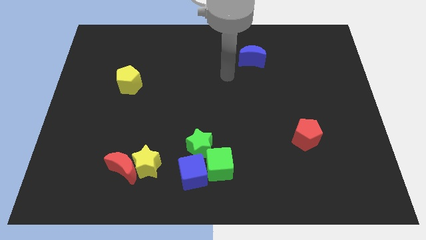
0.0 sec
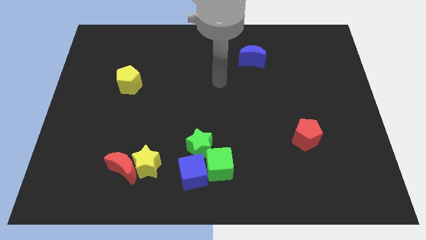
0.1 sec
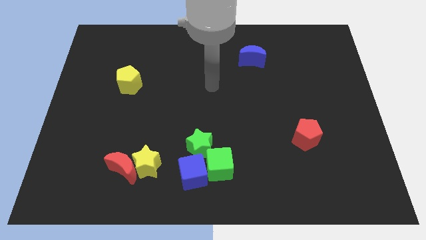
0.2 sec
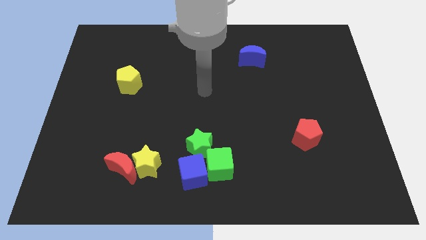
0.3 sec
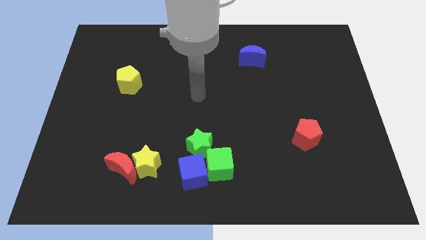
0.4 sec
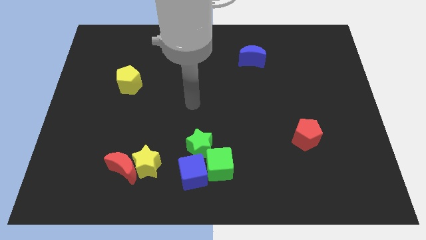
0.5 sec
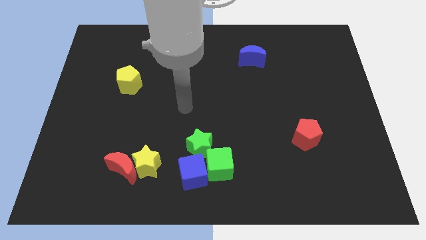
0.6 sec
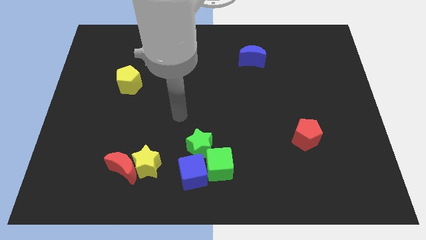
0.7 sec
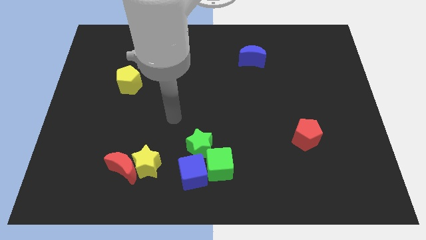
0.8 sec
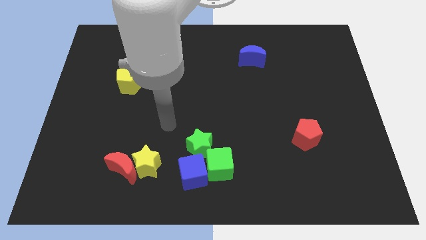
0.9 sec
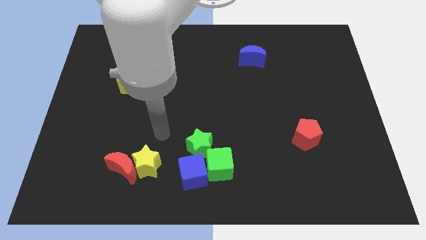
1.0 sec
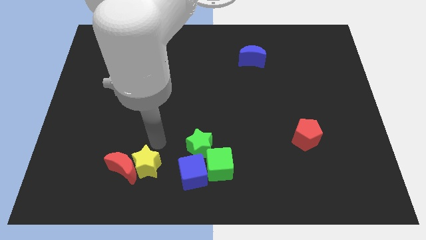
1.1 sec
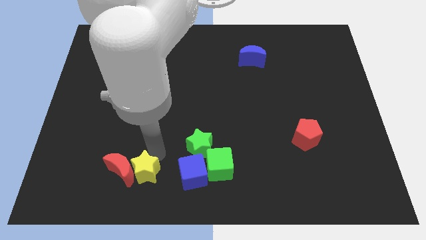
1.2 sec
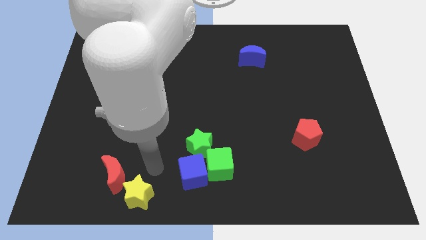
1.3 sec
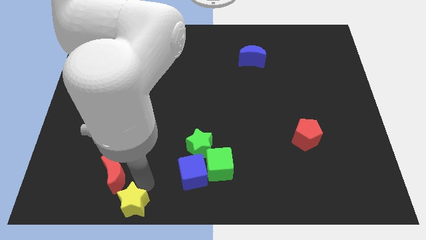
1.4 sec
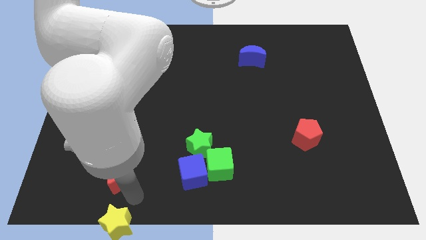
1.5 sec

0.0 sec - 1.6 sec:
separate the red moon from the yellow star

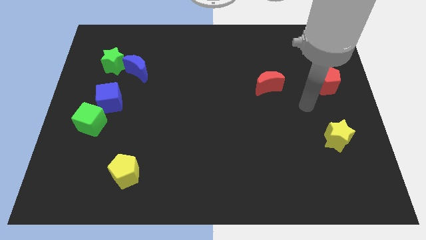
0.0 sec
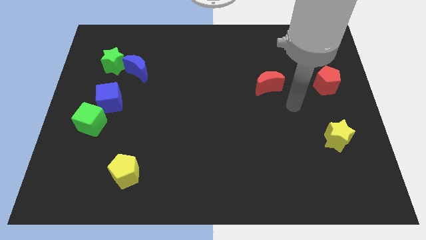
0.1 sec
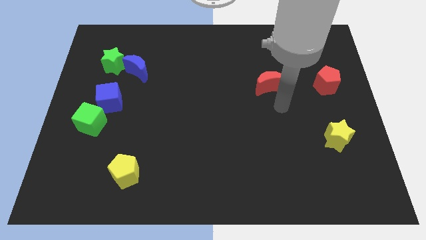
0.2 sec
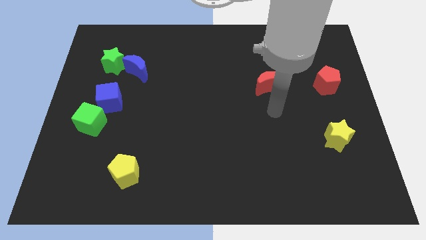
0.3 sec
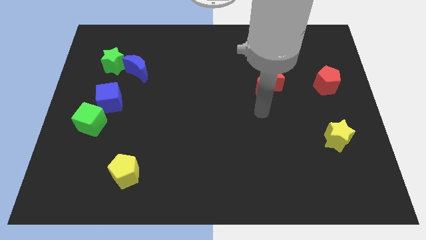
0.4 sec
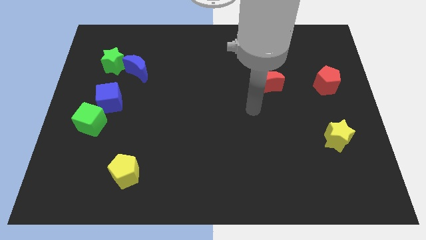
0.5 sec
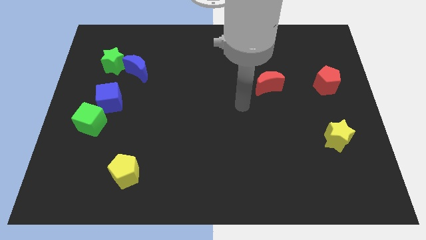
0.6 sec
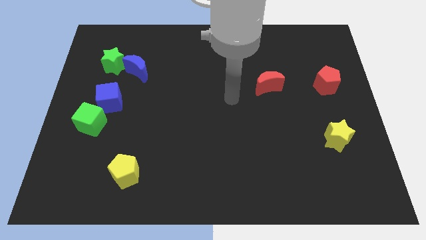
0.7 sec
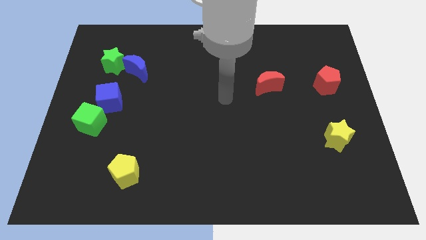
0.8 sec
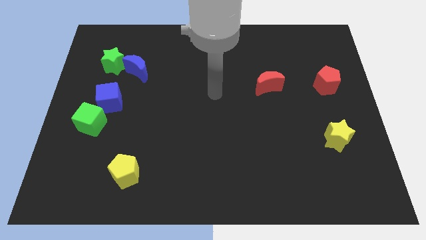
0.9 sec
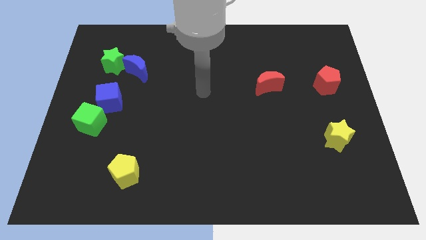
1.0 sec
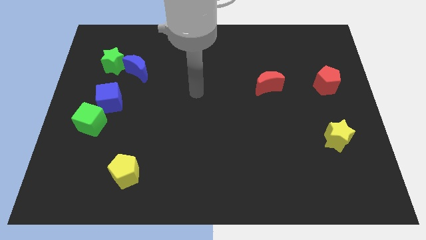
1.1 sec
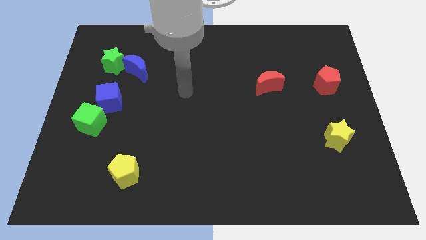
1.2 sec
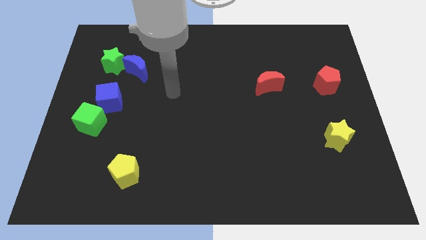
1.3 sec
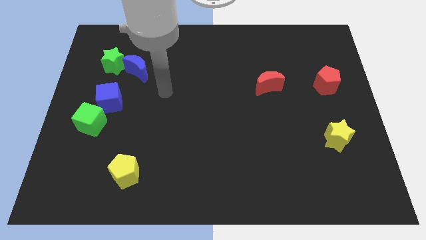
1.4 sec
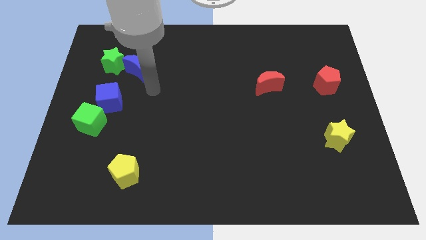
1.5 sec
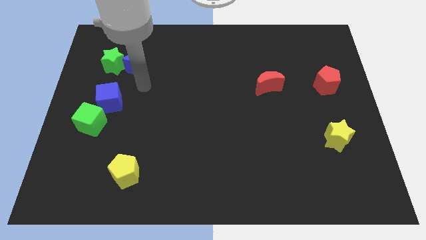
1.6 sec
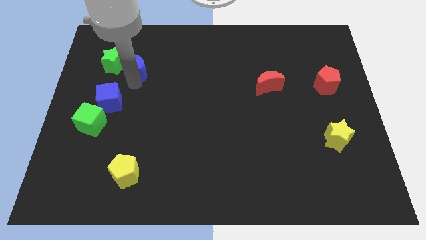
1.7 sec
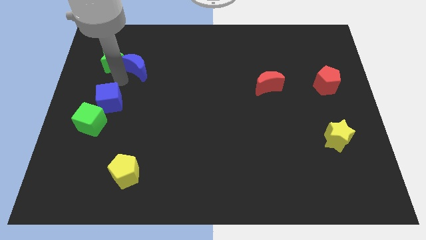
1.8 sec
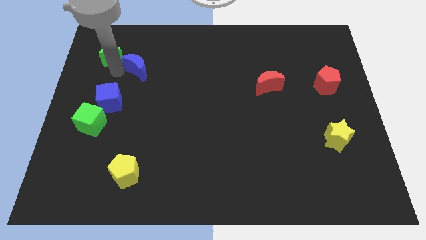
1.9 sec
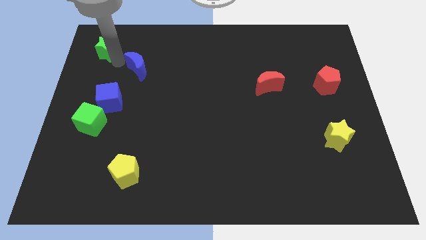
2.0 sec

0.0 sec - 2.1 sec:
pull the blue moon apart from the green star

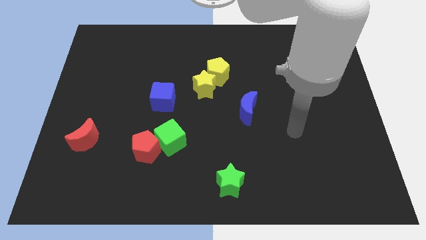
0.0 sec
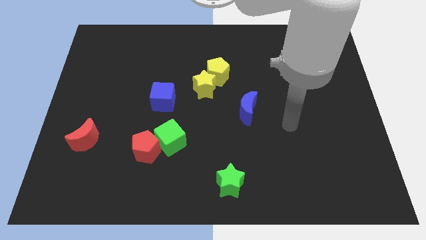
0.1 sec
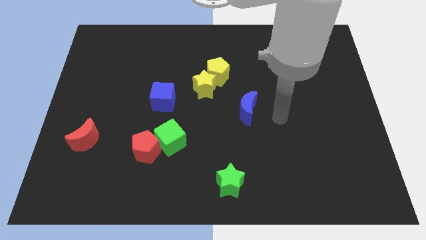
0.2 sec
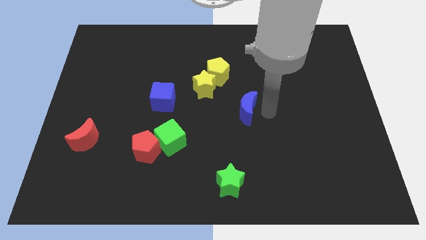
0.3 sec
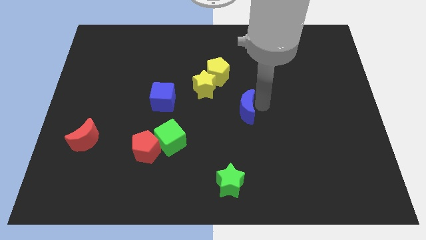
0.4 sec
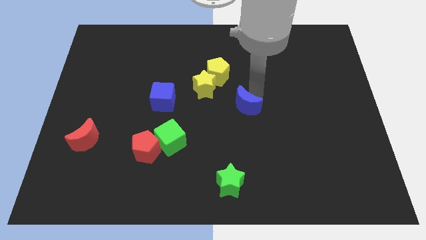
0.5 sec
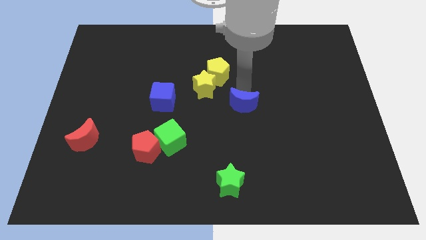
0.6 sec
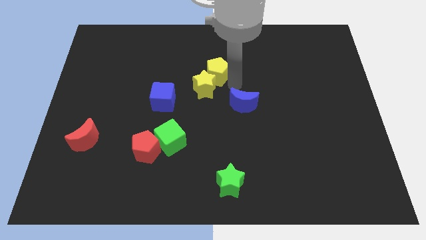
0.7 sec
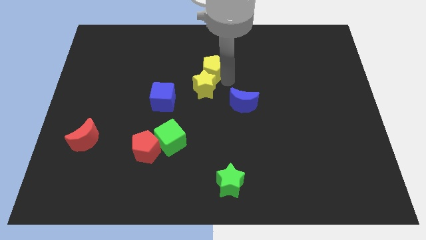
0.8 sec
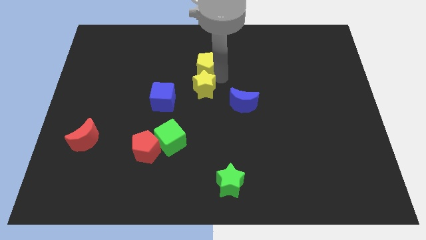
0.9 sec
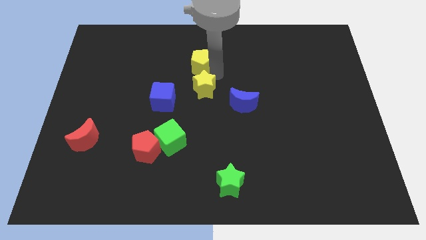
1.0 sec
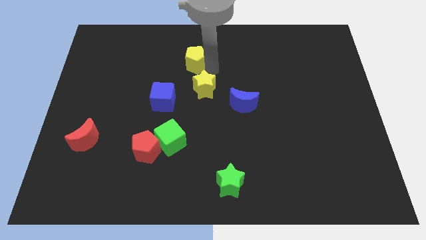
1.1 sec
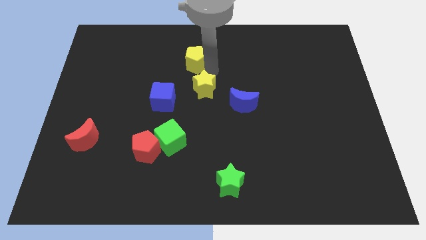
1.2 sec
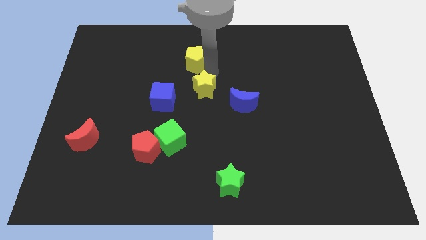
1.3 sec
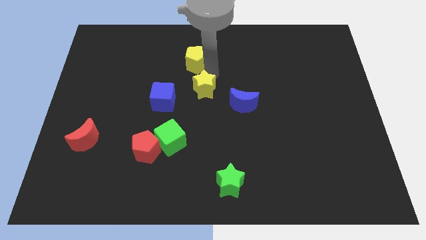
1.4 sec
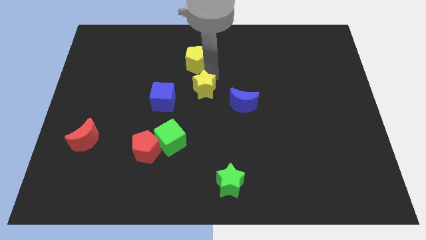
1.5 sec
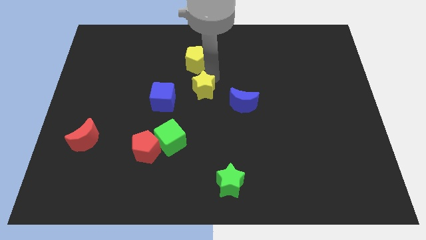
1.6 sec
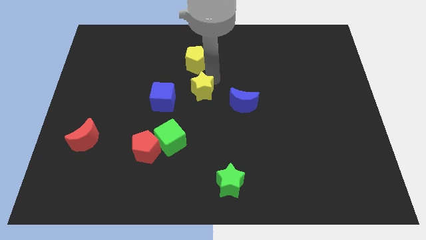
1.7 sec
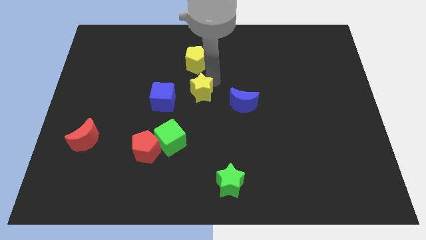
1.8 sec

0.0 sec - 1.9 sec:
pull the yellow star apart from the yellow pentagon

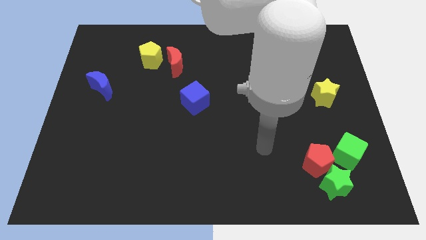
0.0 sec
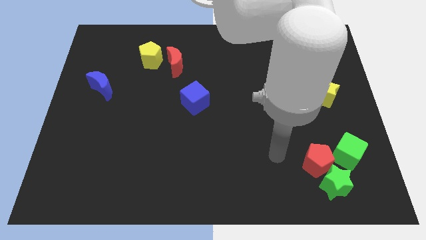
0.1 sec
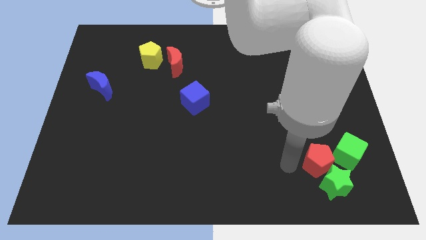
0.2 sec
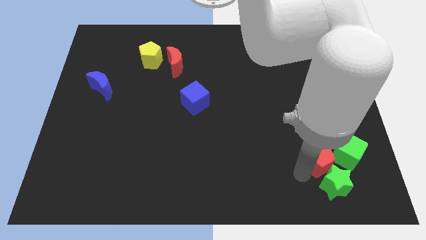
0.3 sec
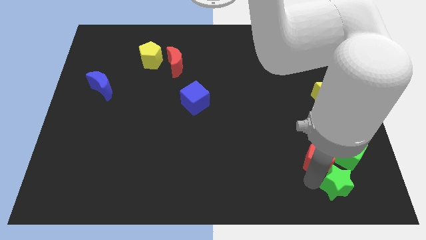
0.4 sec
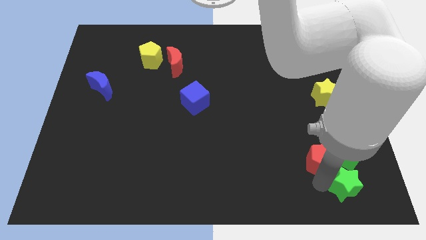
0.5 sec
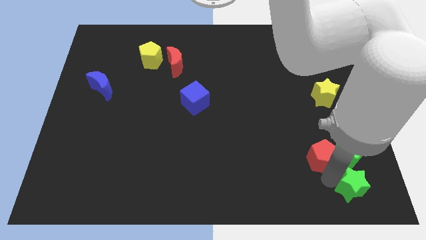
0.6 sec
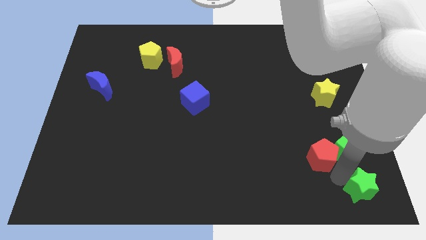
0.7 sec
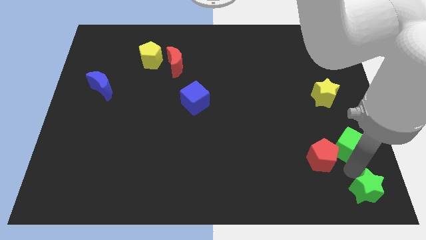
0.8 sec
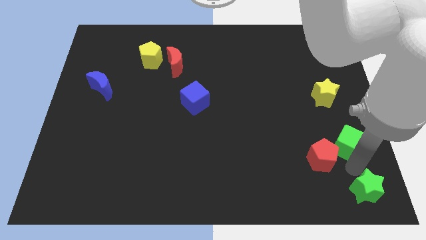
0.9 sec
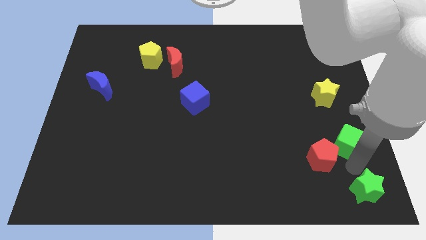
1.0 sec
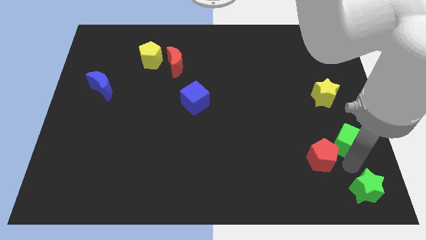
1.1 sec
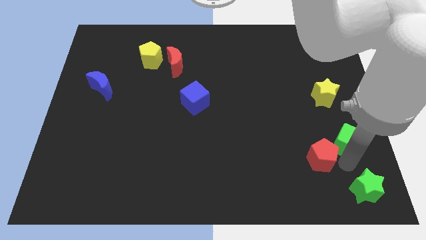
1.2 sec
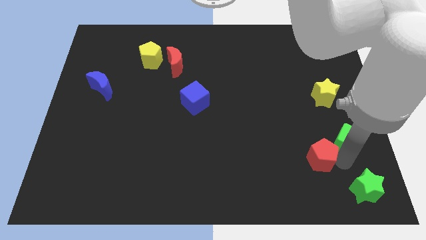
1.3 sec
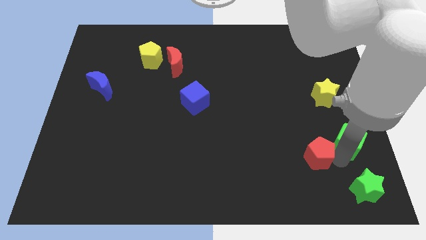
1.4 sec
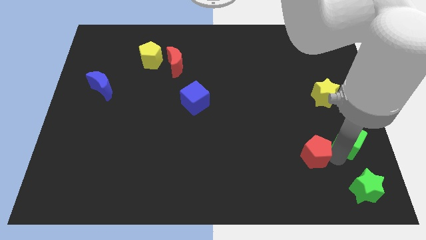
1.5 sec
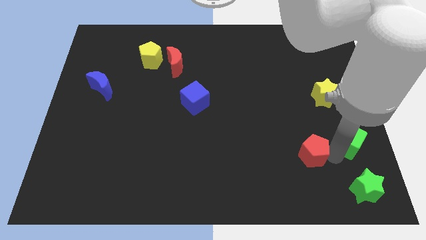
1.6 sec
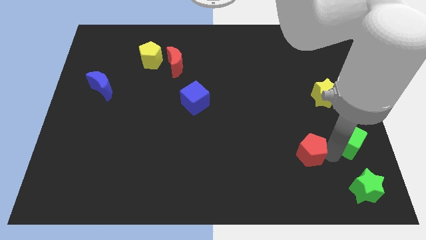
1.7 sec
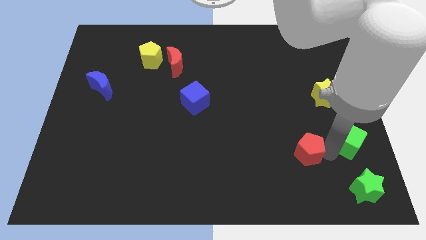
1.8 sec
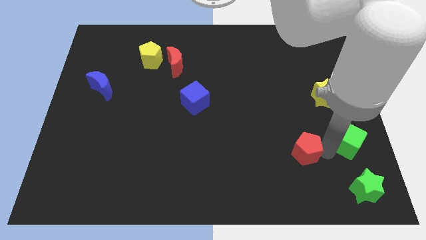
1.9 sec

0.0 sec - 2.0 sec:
separate the red pentagon from the green star and green cube

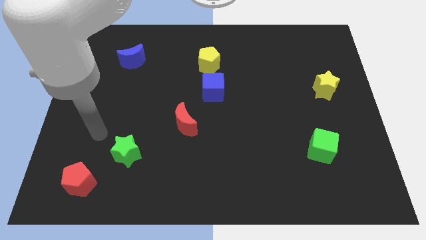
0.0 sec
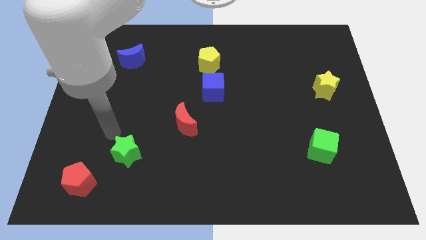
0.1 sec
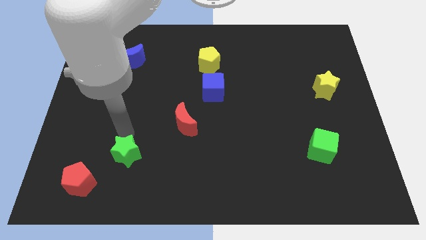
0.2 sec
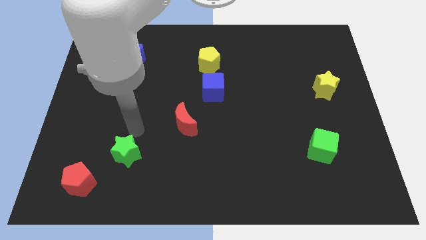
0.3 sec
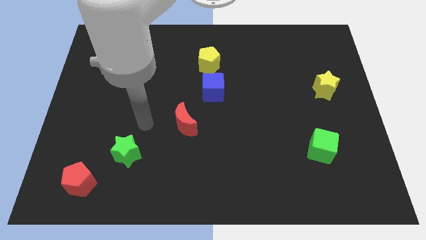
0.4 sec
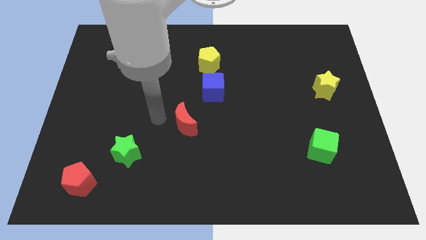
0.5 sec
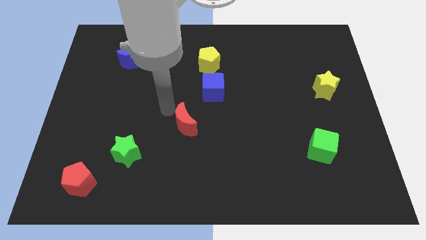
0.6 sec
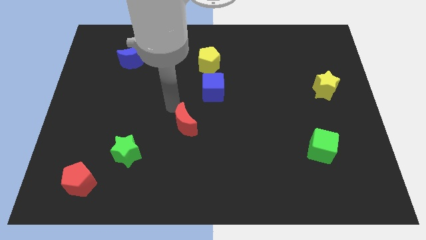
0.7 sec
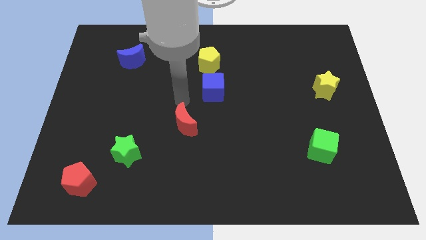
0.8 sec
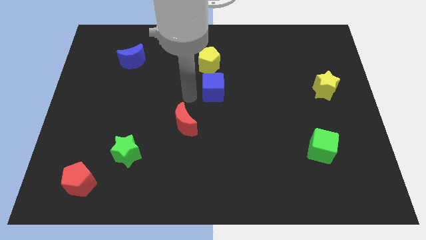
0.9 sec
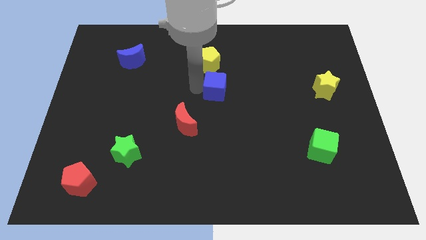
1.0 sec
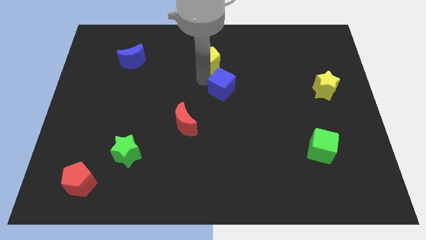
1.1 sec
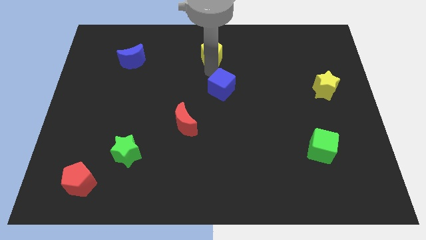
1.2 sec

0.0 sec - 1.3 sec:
separate the blue cube from the yellow pentagon

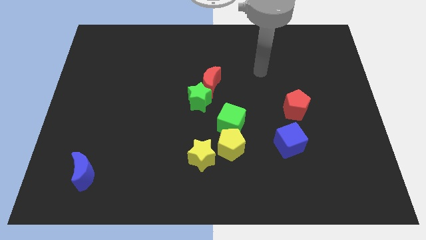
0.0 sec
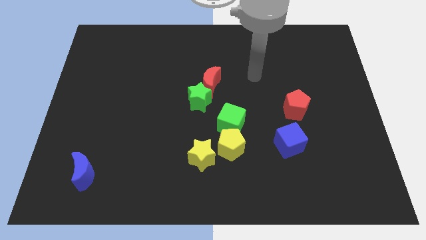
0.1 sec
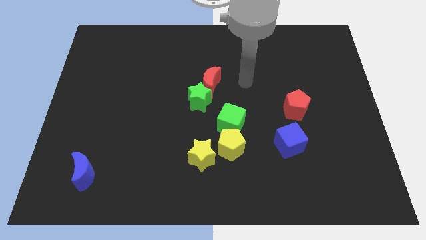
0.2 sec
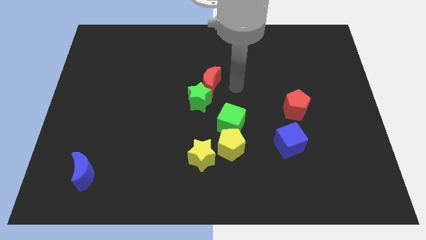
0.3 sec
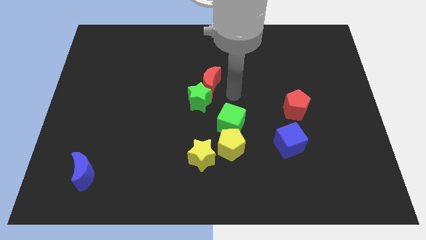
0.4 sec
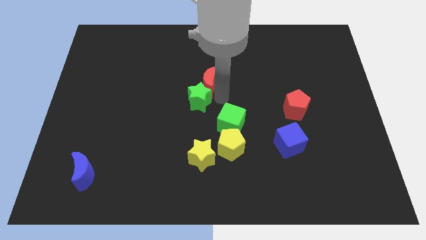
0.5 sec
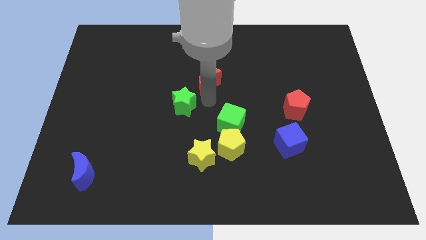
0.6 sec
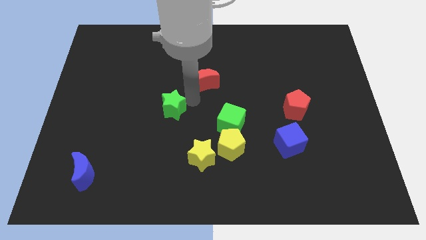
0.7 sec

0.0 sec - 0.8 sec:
move the red moon away from the green star
